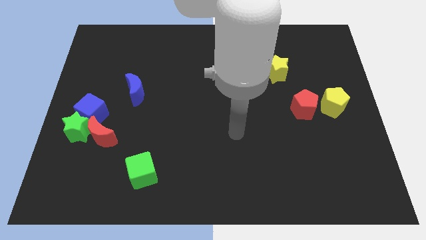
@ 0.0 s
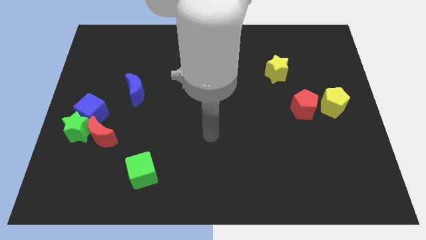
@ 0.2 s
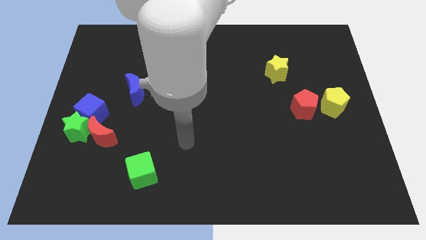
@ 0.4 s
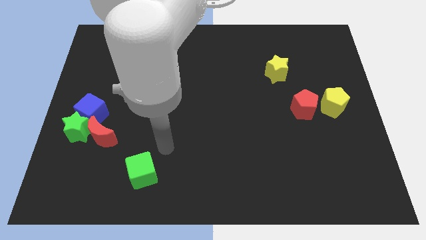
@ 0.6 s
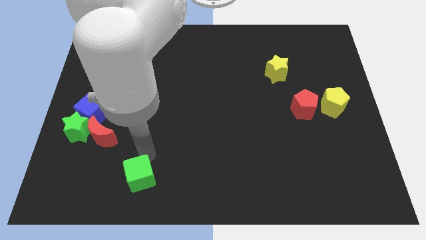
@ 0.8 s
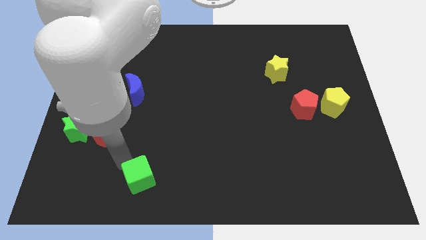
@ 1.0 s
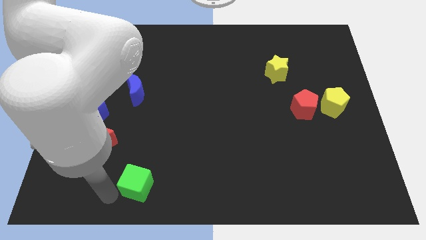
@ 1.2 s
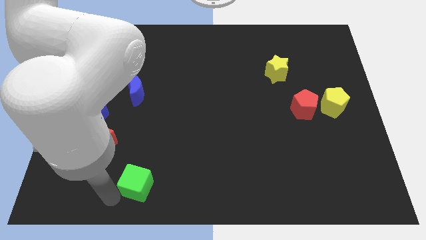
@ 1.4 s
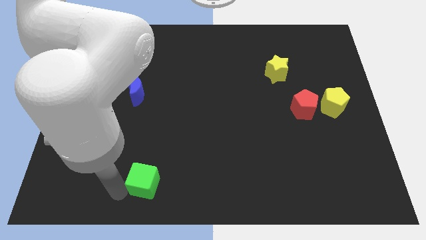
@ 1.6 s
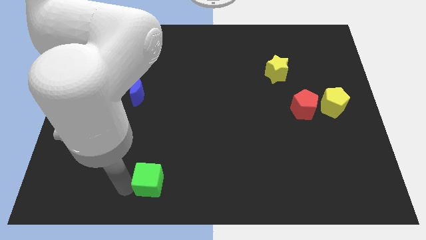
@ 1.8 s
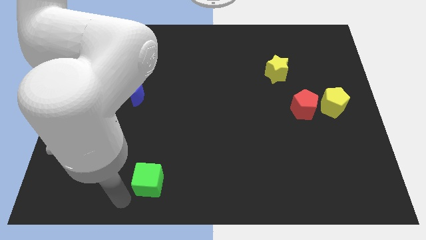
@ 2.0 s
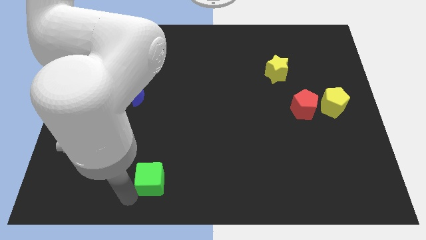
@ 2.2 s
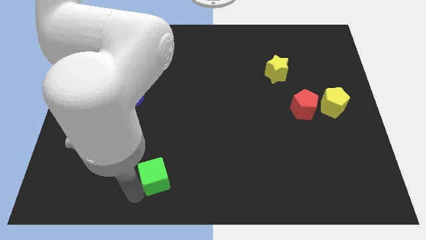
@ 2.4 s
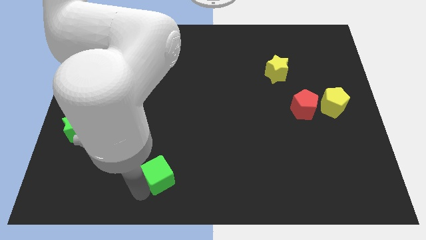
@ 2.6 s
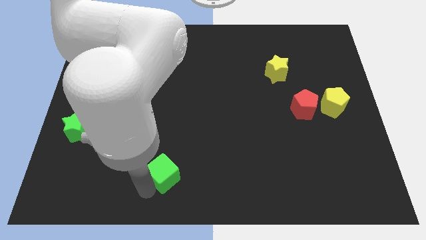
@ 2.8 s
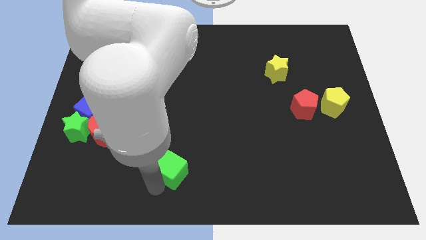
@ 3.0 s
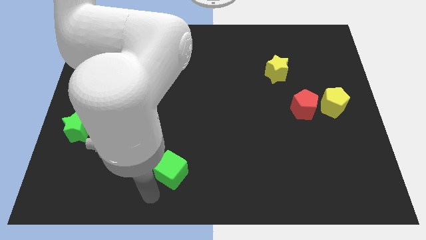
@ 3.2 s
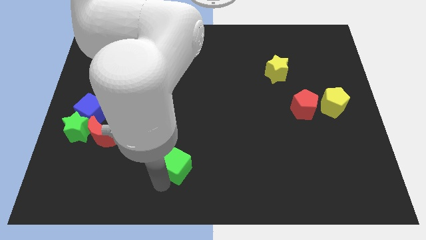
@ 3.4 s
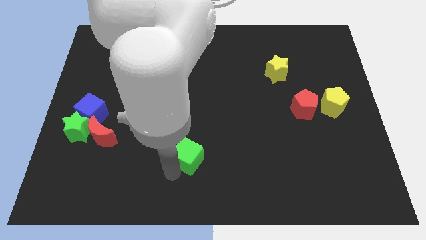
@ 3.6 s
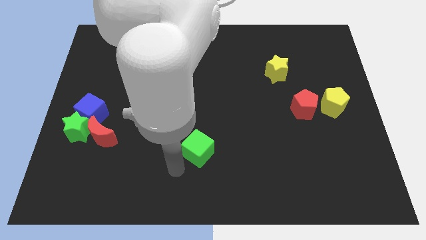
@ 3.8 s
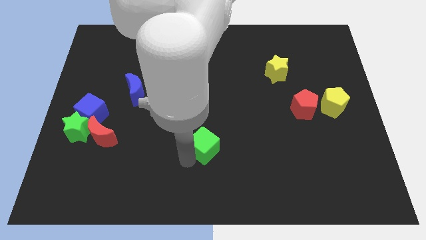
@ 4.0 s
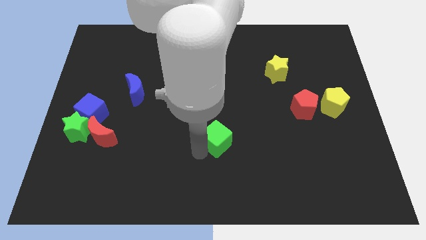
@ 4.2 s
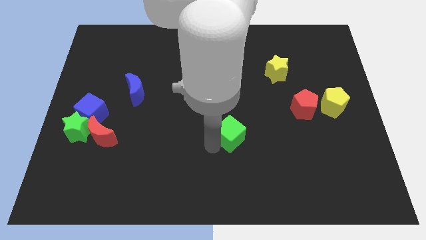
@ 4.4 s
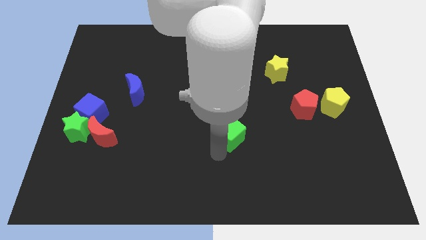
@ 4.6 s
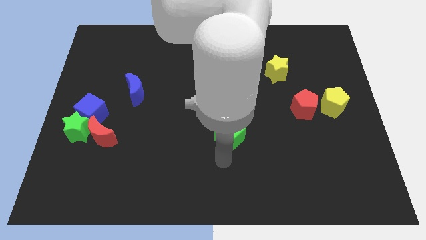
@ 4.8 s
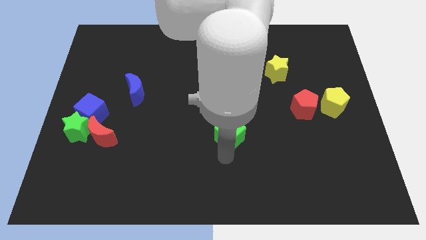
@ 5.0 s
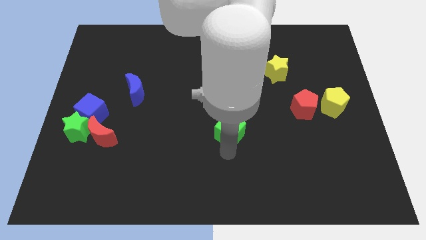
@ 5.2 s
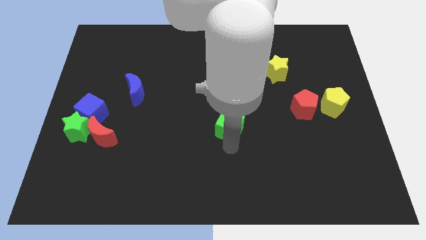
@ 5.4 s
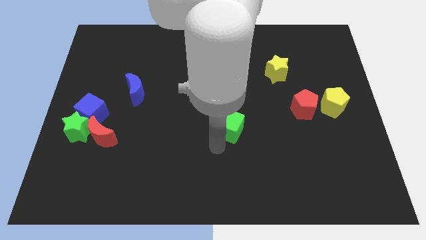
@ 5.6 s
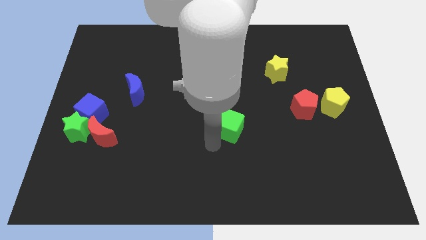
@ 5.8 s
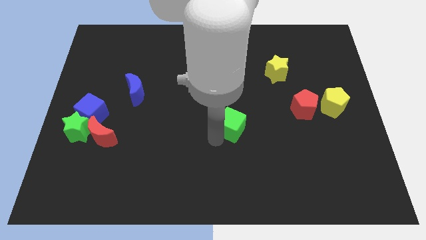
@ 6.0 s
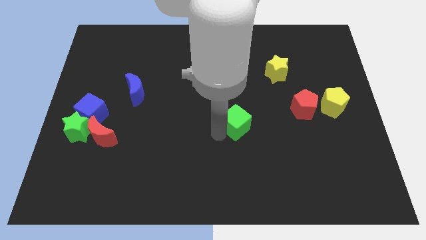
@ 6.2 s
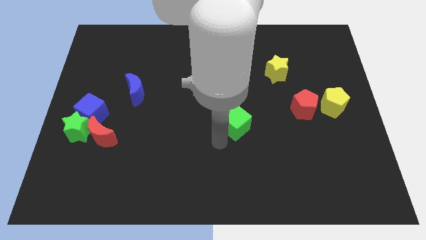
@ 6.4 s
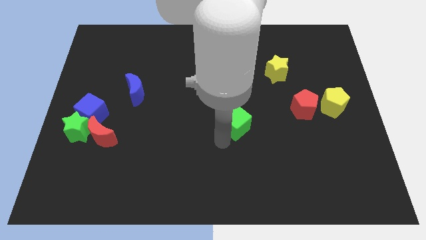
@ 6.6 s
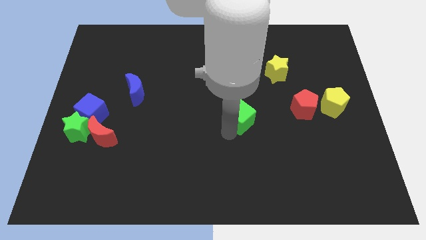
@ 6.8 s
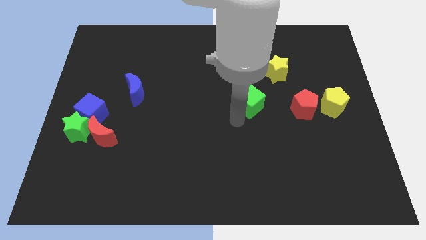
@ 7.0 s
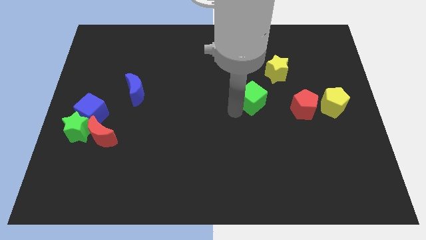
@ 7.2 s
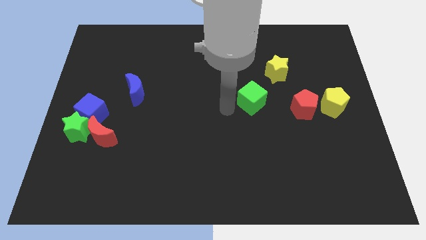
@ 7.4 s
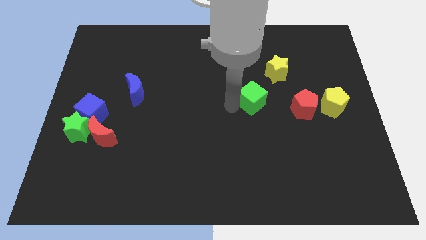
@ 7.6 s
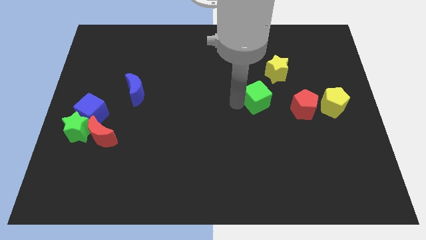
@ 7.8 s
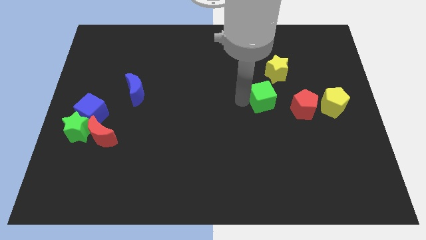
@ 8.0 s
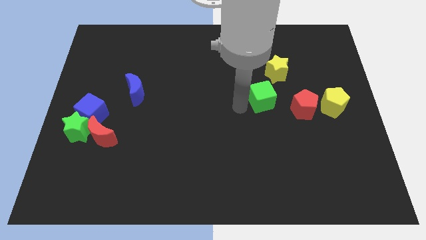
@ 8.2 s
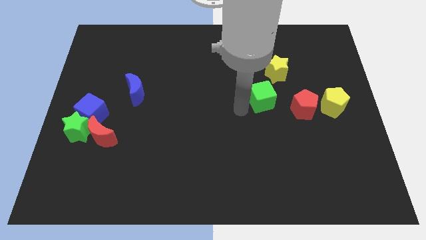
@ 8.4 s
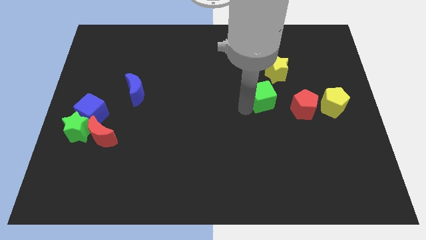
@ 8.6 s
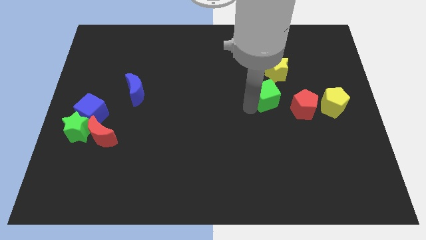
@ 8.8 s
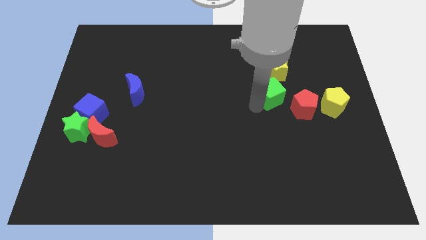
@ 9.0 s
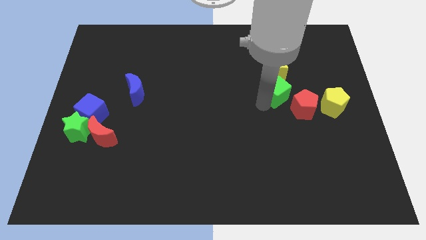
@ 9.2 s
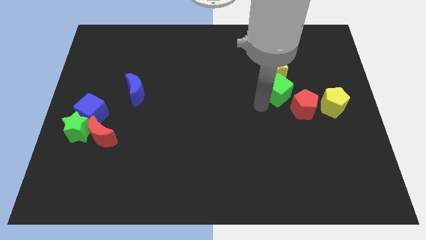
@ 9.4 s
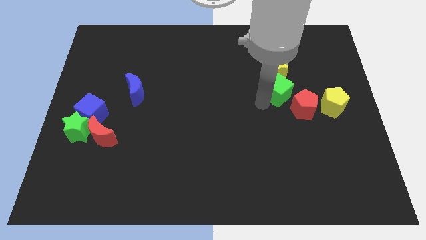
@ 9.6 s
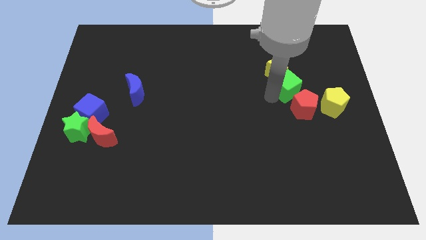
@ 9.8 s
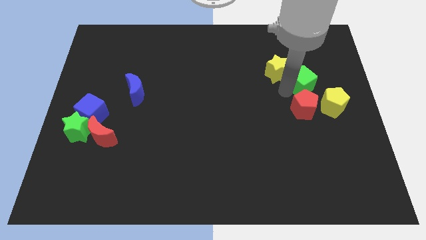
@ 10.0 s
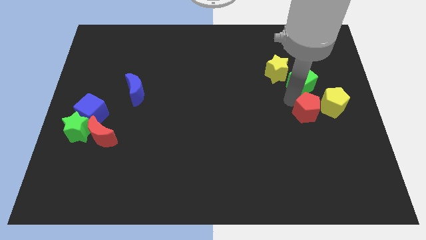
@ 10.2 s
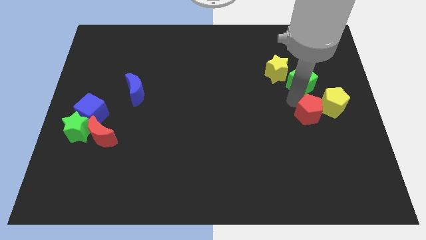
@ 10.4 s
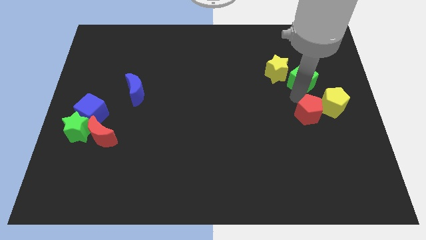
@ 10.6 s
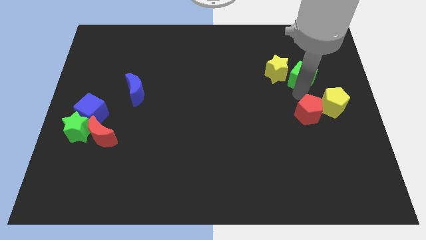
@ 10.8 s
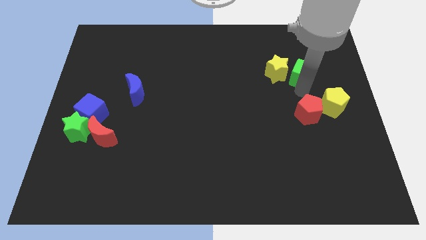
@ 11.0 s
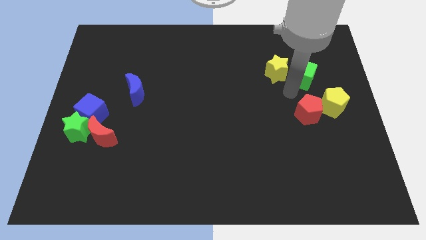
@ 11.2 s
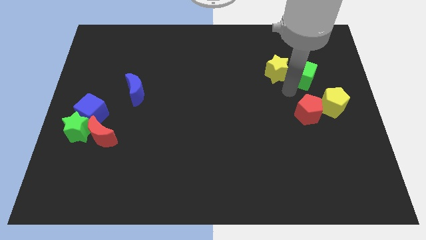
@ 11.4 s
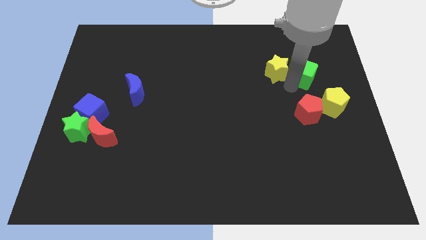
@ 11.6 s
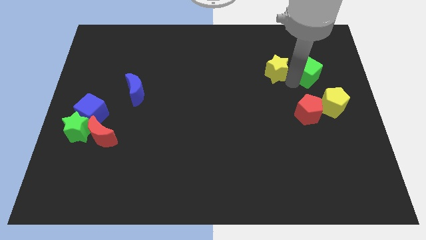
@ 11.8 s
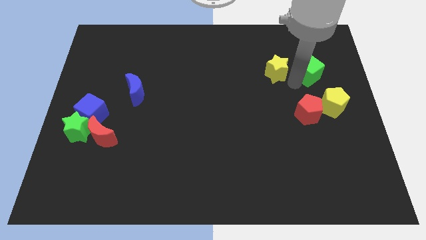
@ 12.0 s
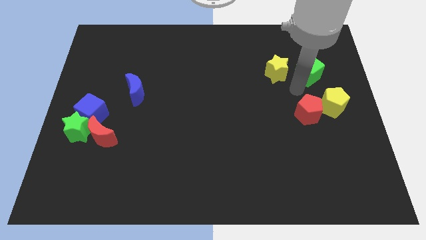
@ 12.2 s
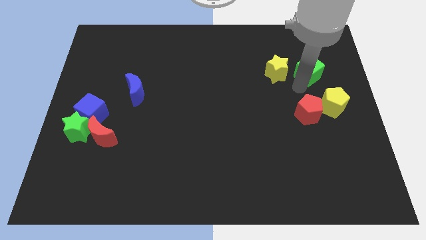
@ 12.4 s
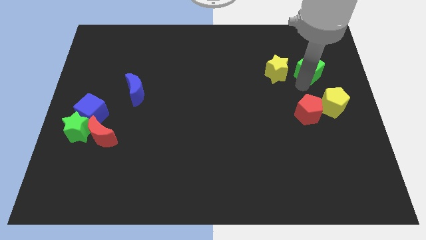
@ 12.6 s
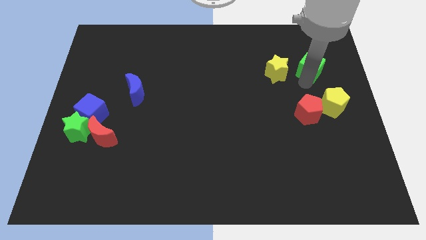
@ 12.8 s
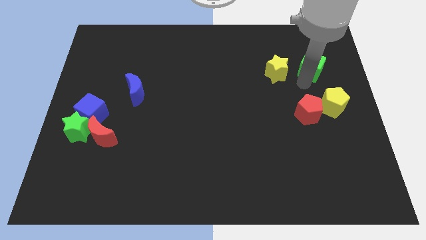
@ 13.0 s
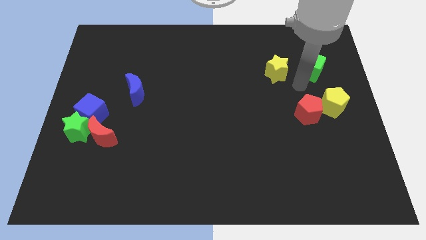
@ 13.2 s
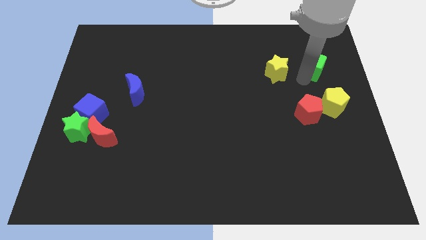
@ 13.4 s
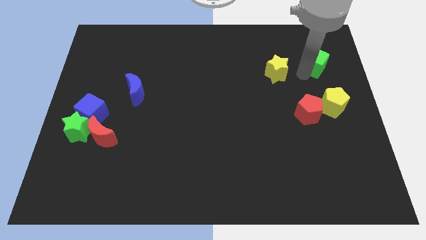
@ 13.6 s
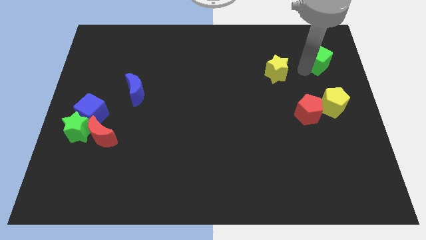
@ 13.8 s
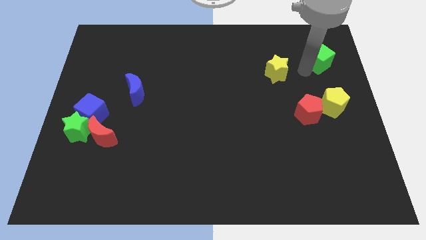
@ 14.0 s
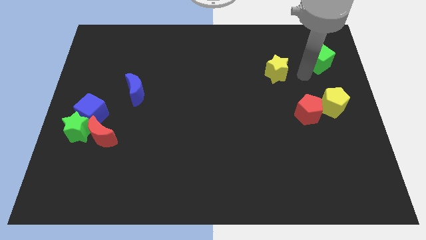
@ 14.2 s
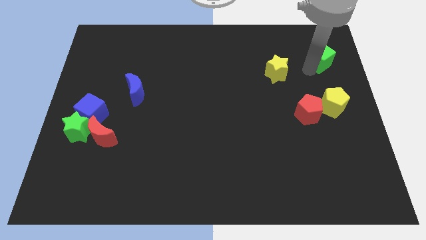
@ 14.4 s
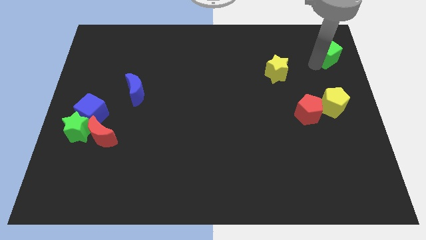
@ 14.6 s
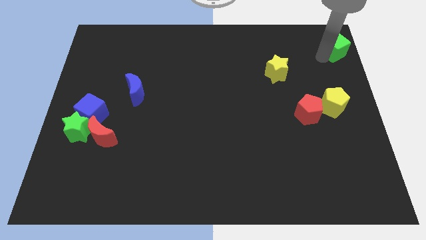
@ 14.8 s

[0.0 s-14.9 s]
move the green cube to the upper right corner
